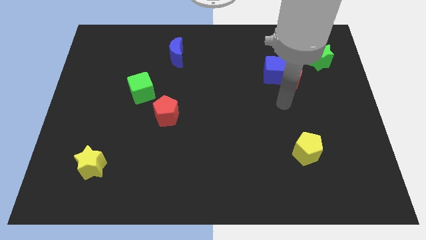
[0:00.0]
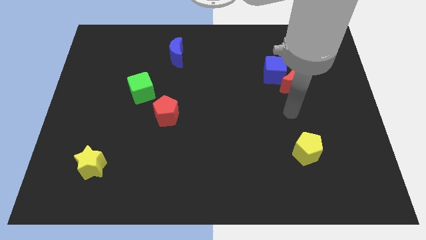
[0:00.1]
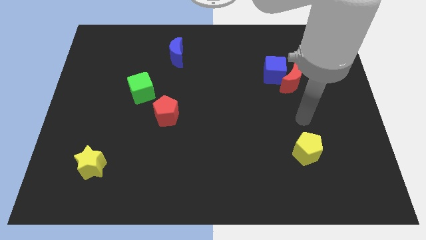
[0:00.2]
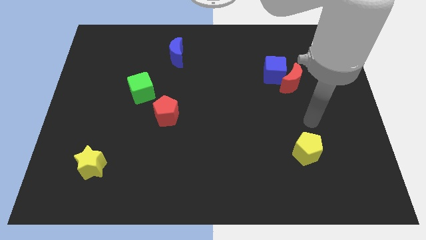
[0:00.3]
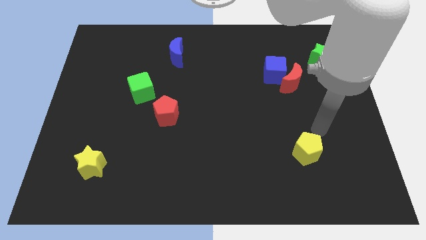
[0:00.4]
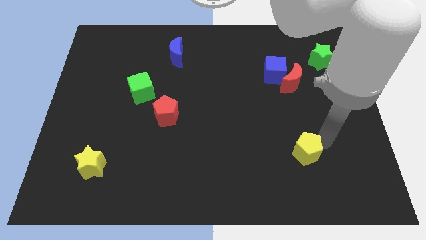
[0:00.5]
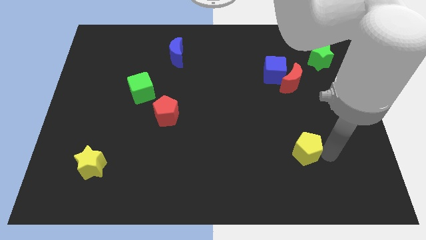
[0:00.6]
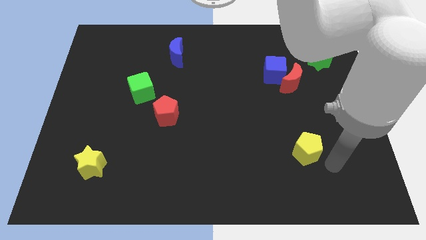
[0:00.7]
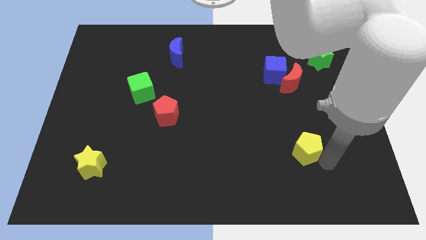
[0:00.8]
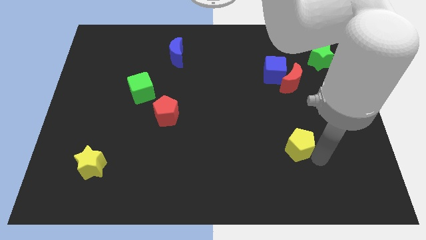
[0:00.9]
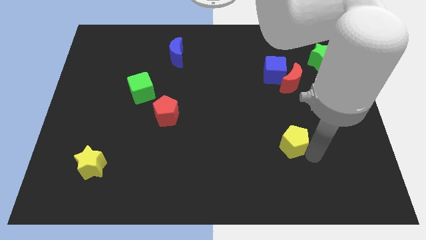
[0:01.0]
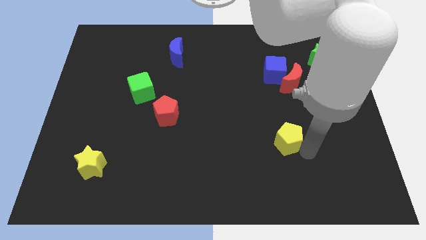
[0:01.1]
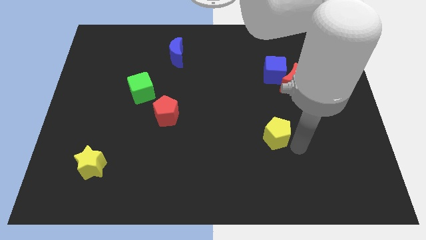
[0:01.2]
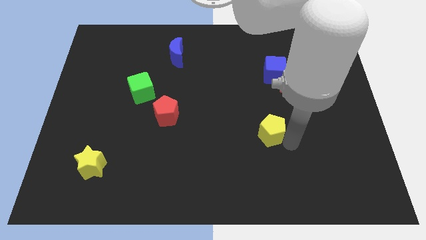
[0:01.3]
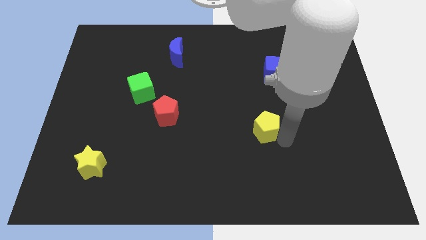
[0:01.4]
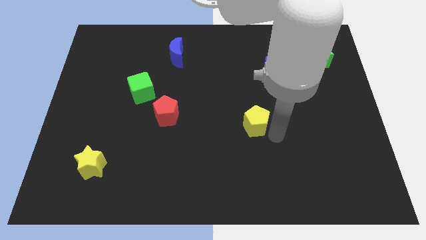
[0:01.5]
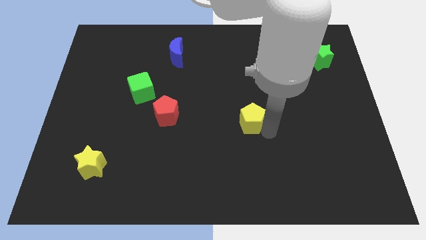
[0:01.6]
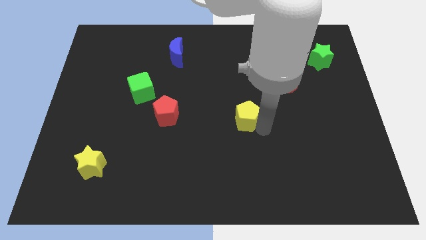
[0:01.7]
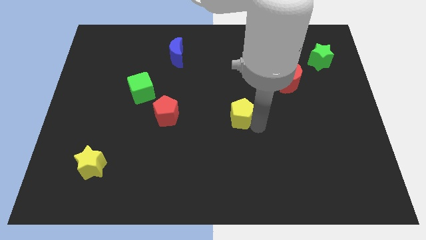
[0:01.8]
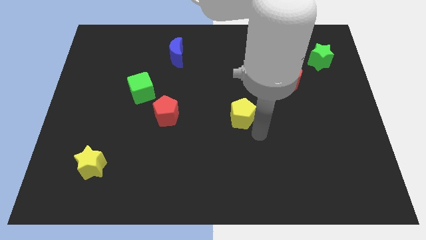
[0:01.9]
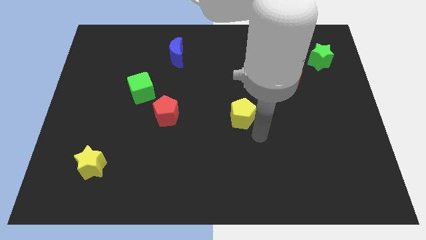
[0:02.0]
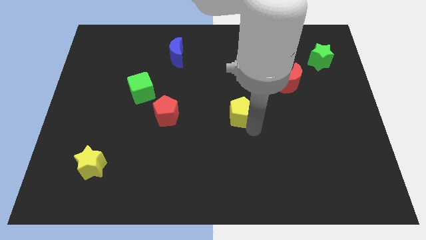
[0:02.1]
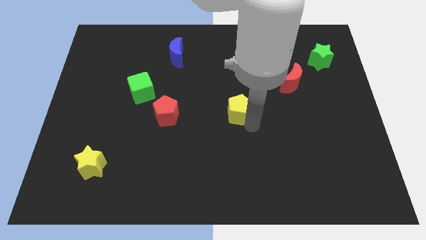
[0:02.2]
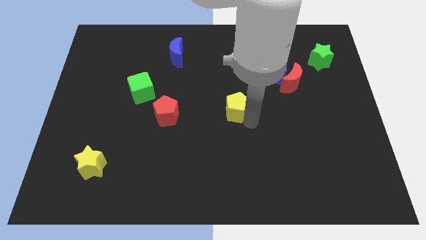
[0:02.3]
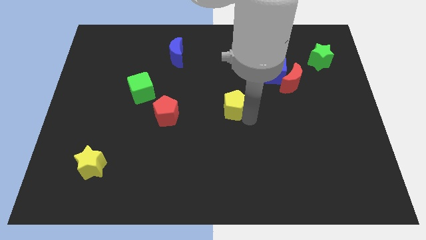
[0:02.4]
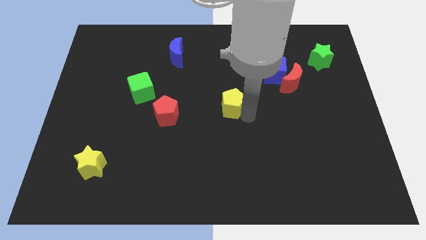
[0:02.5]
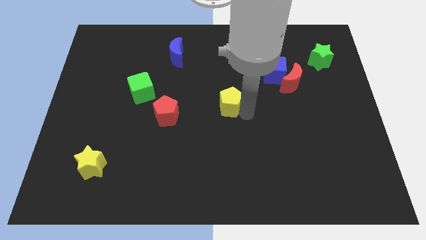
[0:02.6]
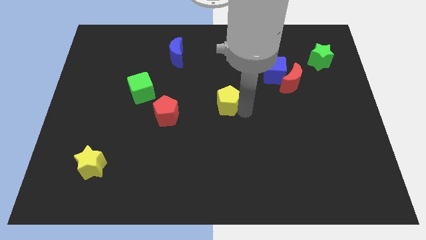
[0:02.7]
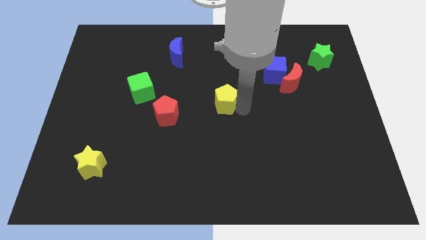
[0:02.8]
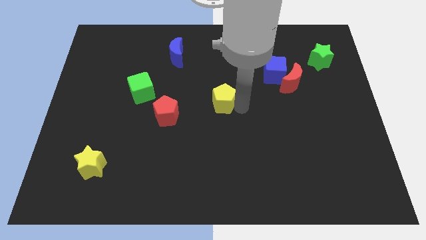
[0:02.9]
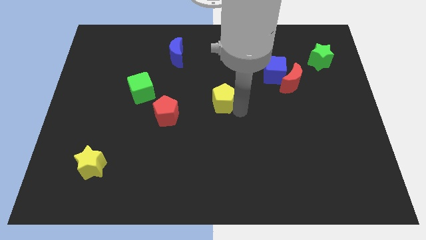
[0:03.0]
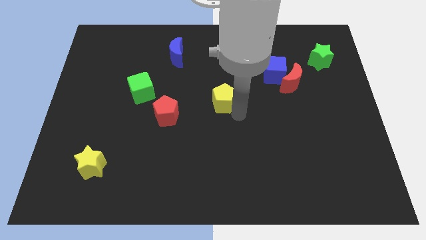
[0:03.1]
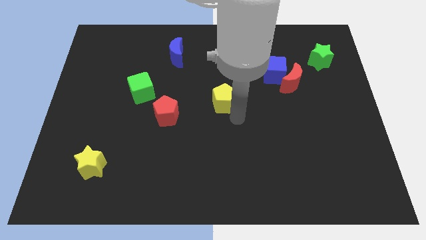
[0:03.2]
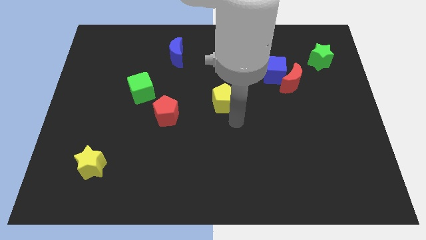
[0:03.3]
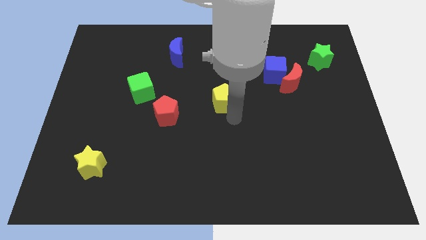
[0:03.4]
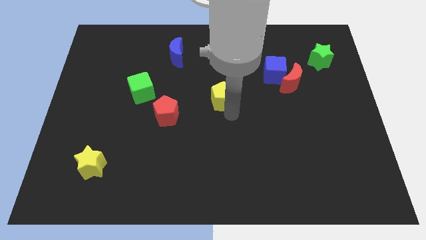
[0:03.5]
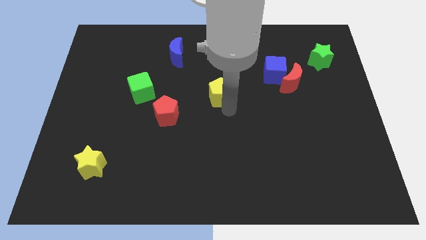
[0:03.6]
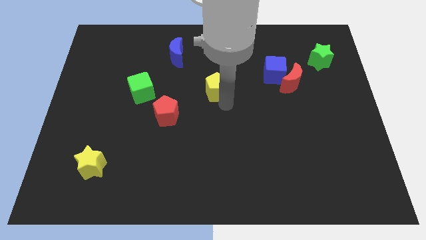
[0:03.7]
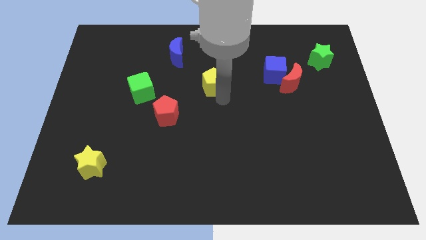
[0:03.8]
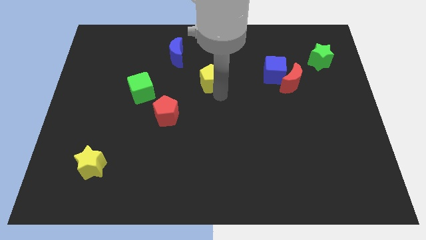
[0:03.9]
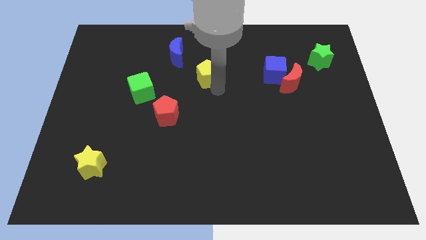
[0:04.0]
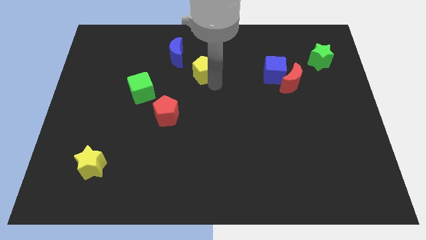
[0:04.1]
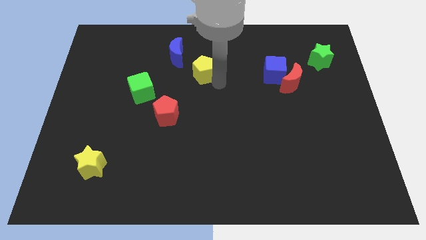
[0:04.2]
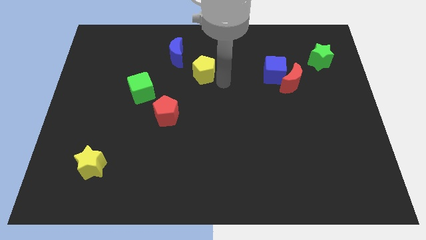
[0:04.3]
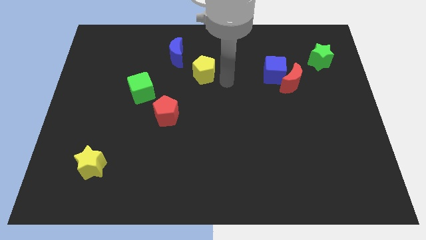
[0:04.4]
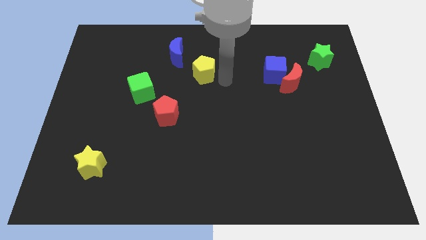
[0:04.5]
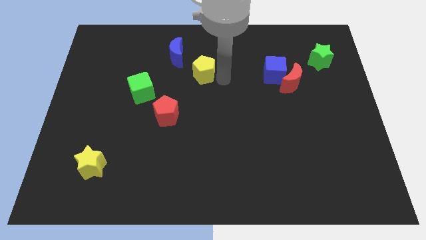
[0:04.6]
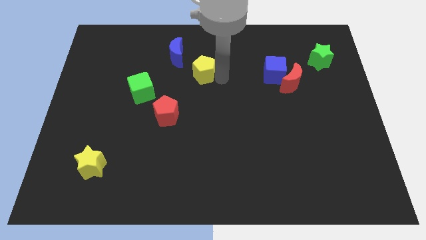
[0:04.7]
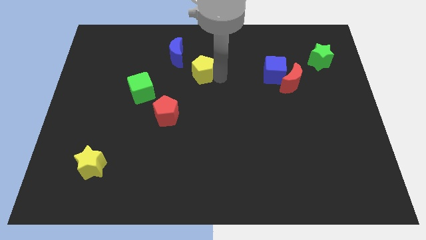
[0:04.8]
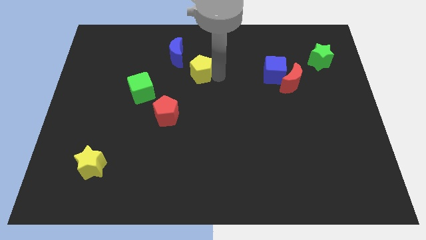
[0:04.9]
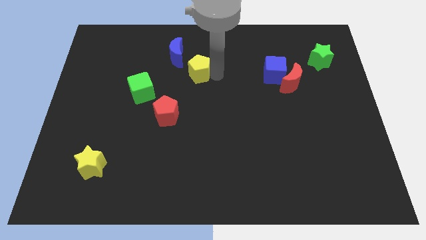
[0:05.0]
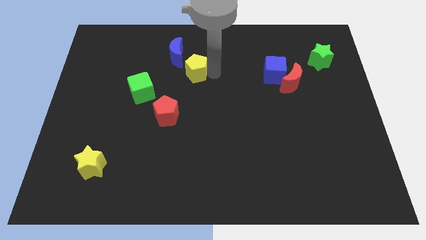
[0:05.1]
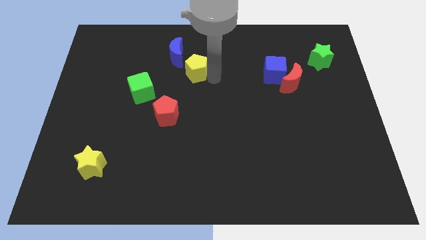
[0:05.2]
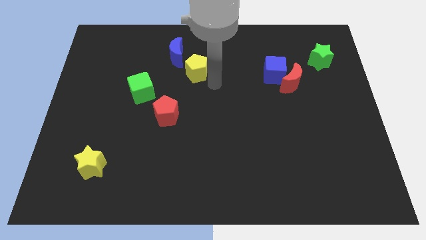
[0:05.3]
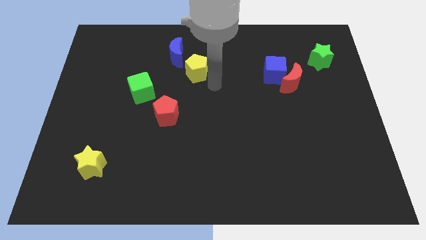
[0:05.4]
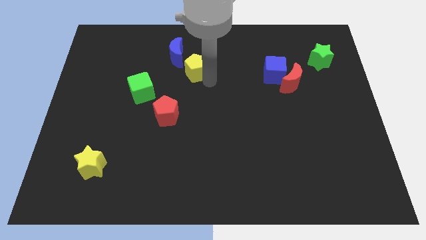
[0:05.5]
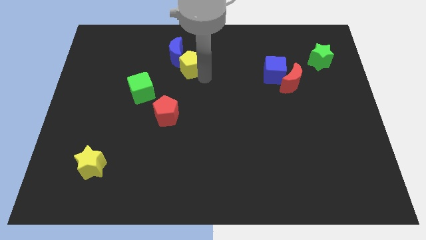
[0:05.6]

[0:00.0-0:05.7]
put the yellow pentagon to the blue moon

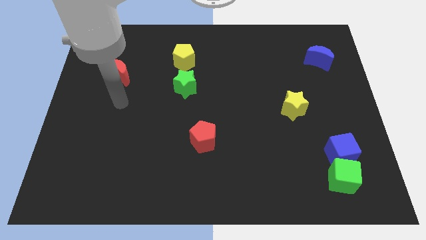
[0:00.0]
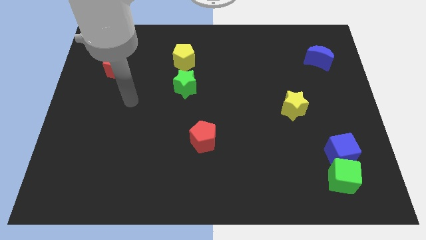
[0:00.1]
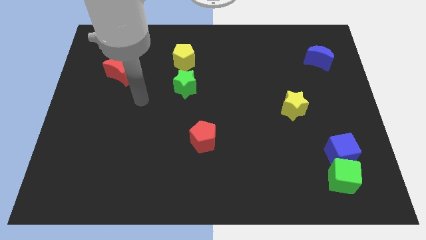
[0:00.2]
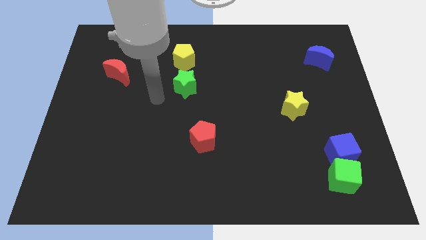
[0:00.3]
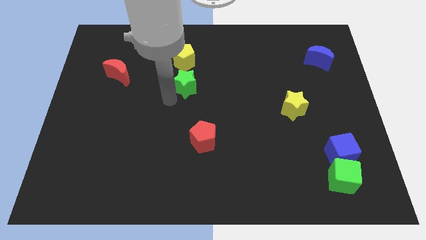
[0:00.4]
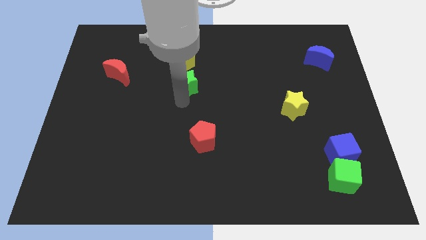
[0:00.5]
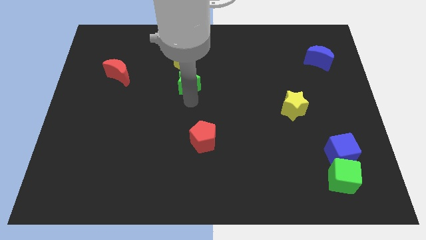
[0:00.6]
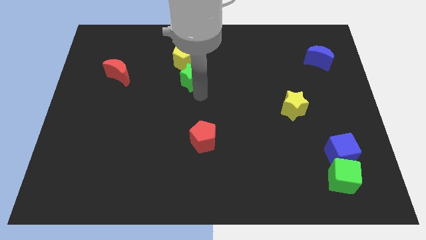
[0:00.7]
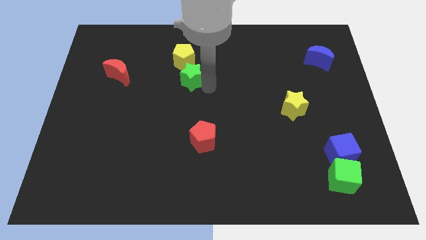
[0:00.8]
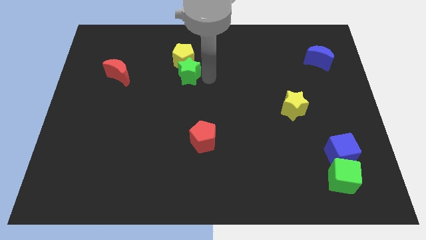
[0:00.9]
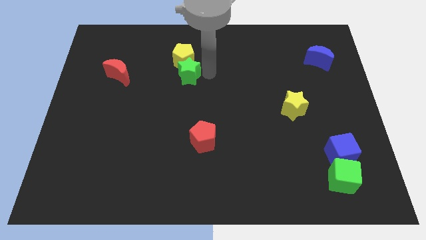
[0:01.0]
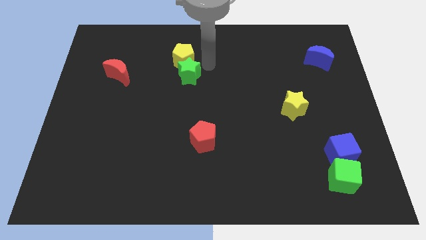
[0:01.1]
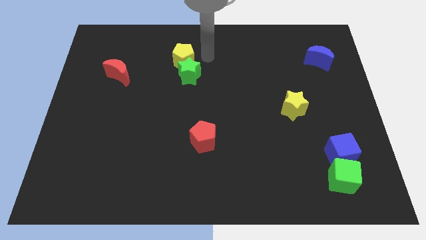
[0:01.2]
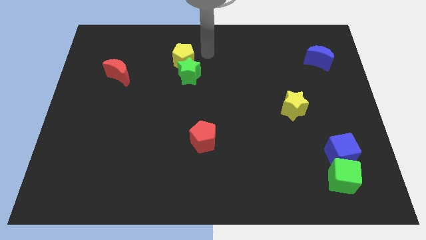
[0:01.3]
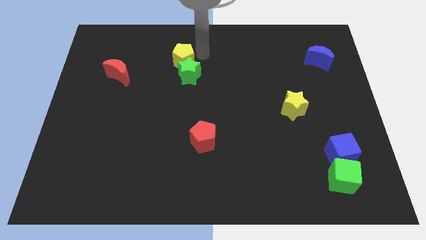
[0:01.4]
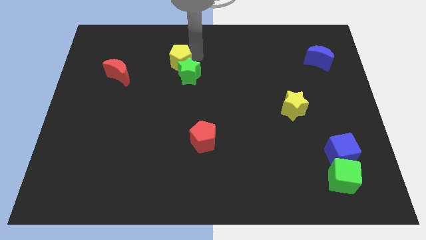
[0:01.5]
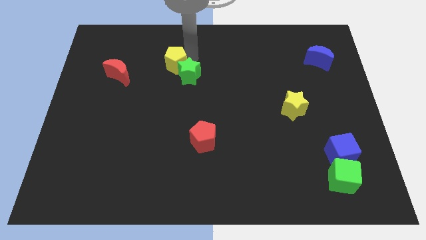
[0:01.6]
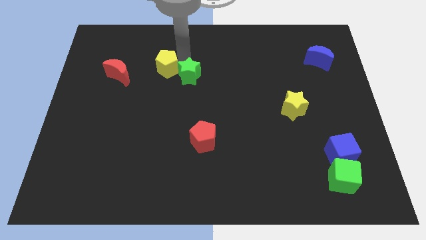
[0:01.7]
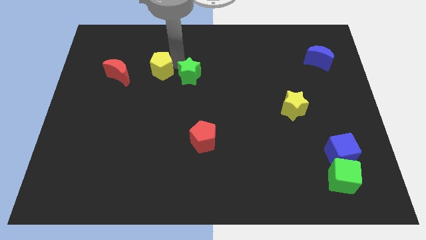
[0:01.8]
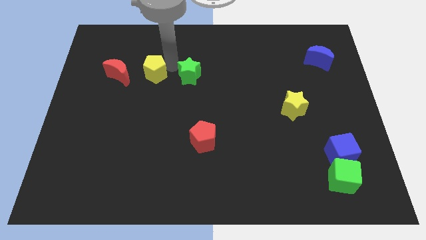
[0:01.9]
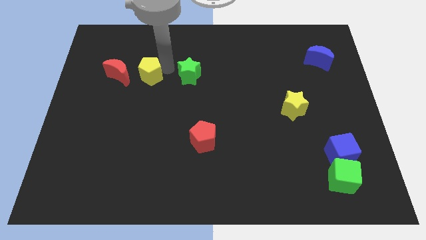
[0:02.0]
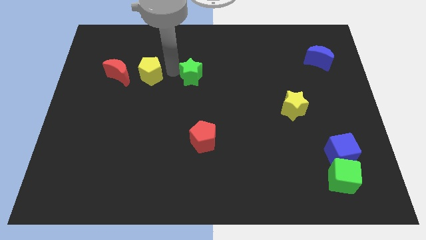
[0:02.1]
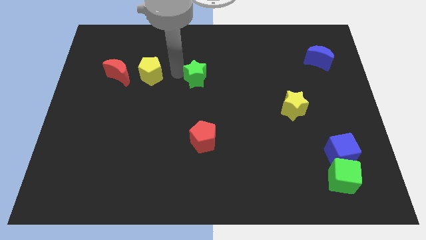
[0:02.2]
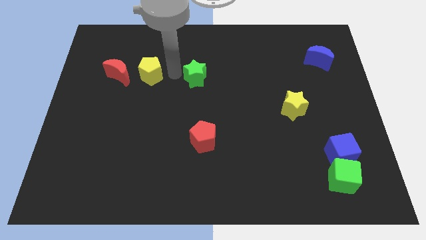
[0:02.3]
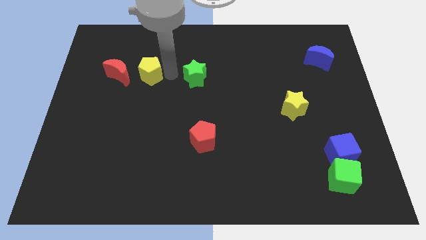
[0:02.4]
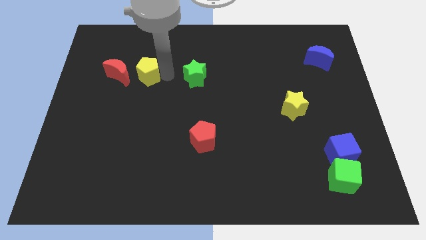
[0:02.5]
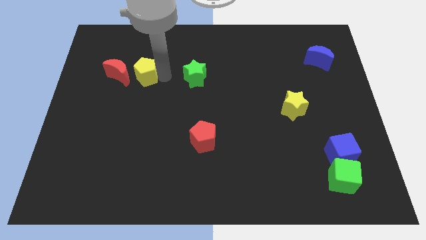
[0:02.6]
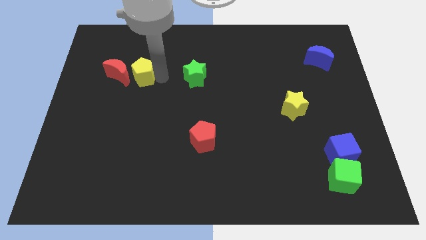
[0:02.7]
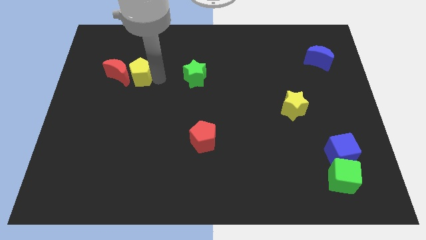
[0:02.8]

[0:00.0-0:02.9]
push the yellow pentagon close to the red moon
